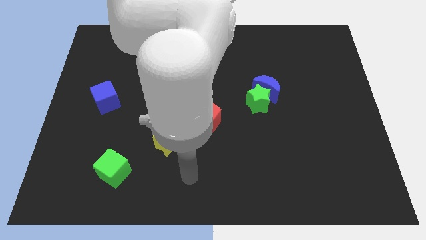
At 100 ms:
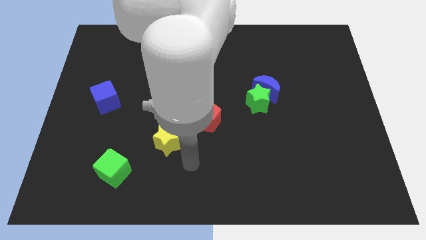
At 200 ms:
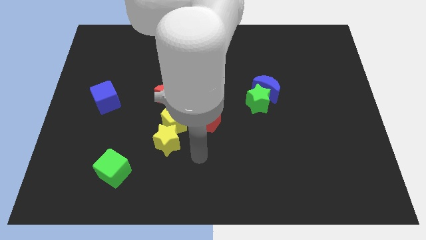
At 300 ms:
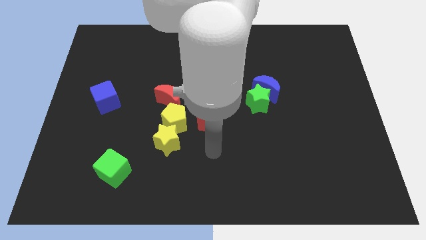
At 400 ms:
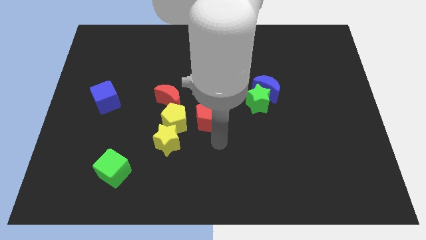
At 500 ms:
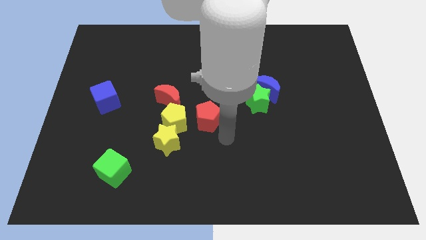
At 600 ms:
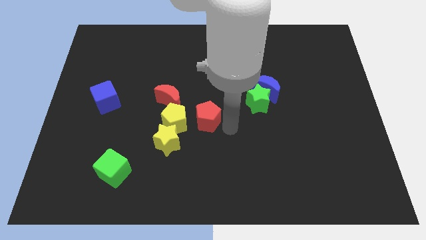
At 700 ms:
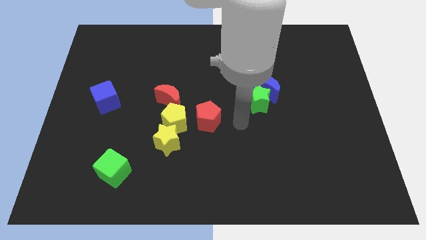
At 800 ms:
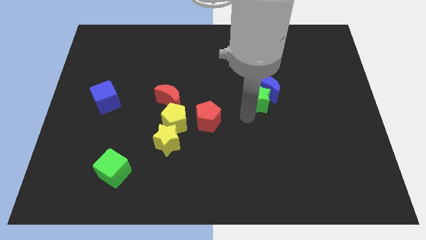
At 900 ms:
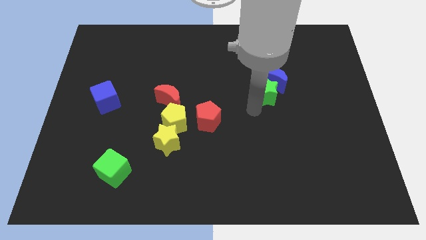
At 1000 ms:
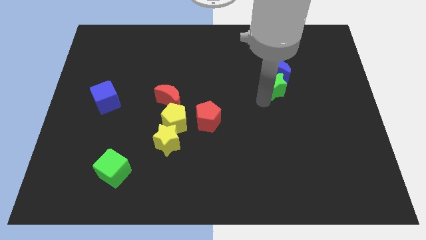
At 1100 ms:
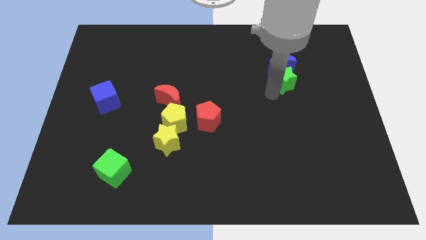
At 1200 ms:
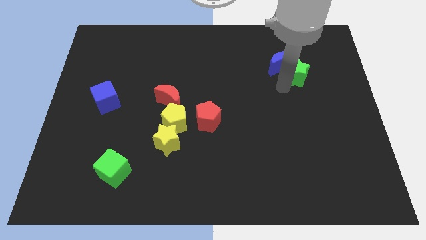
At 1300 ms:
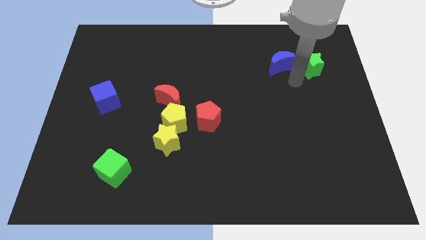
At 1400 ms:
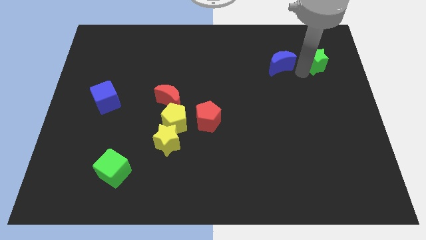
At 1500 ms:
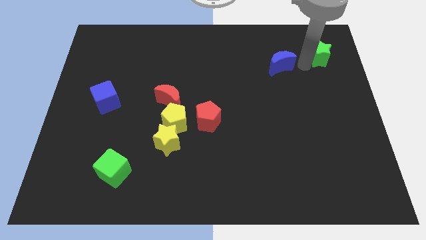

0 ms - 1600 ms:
move the blue moon away from the green star

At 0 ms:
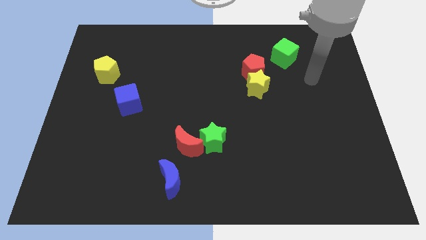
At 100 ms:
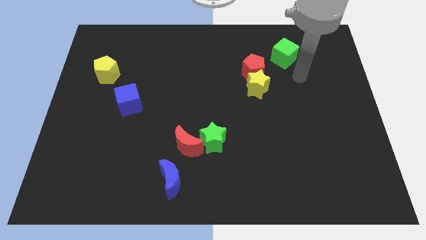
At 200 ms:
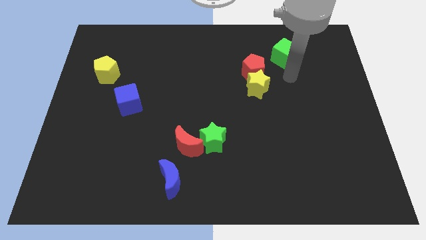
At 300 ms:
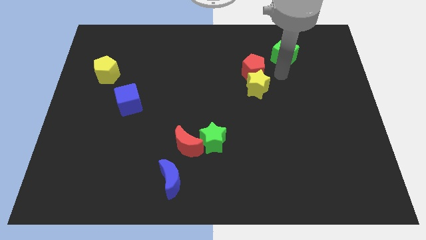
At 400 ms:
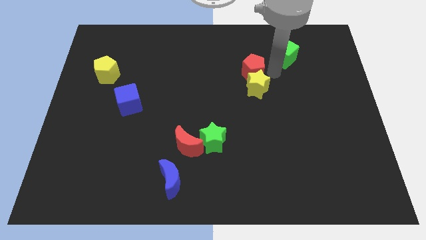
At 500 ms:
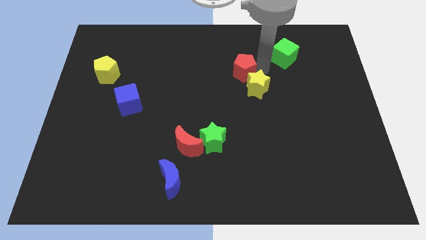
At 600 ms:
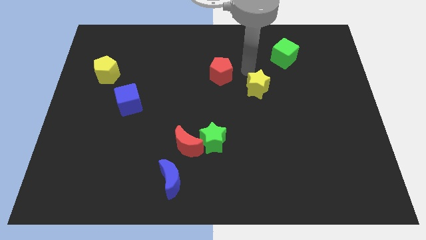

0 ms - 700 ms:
separate the yellow star from the red pentagon

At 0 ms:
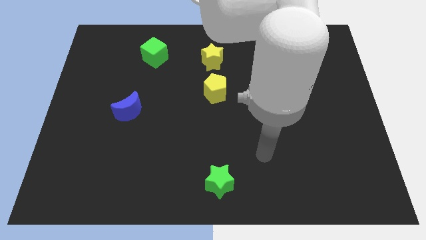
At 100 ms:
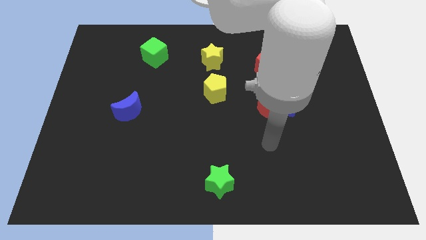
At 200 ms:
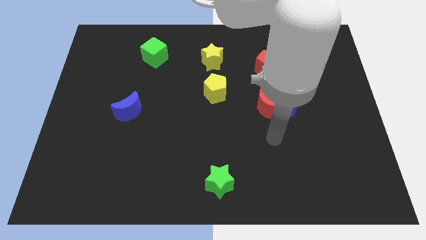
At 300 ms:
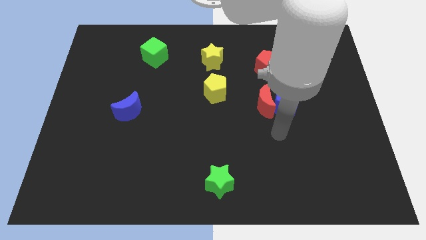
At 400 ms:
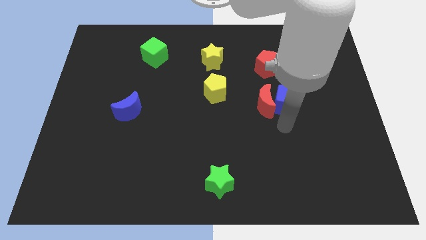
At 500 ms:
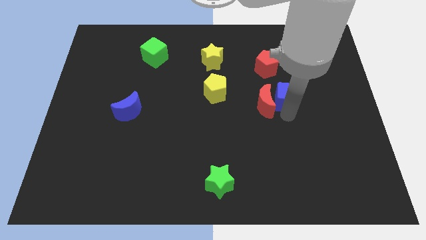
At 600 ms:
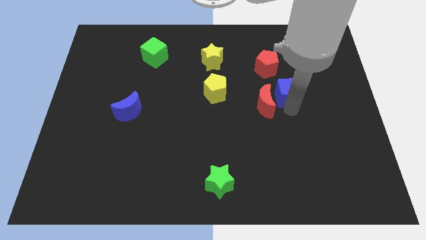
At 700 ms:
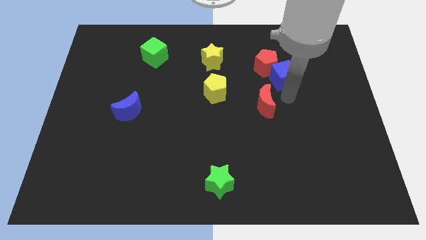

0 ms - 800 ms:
separate the red moon from the blue cube

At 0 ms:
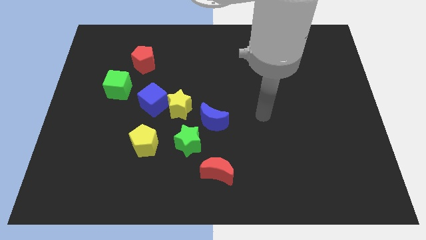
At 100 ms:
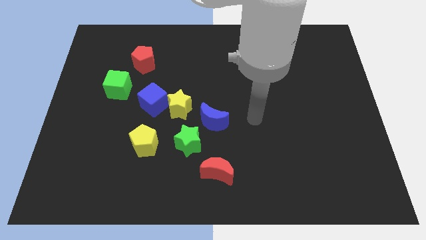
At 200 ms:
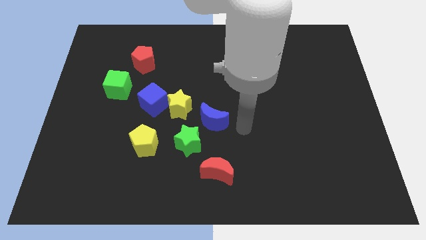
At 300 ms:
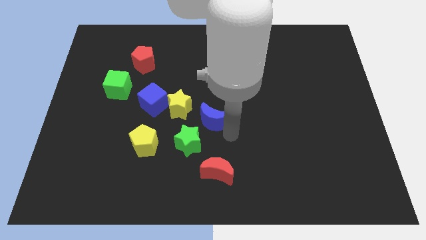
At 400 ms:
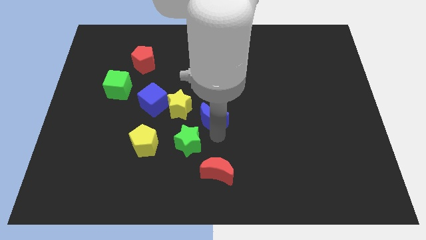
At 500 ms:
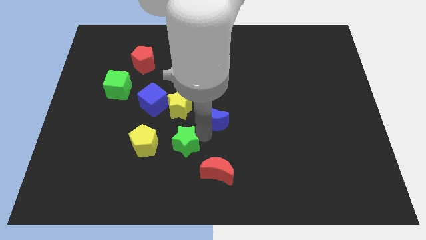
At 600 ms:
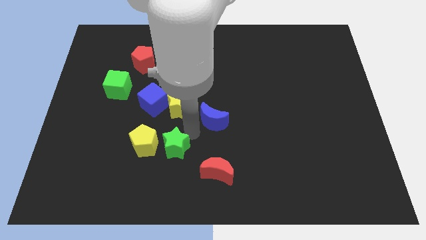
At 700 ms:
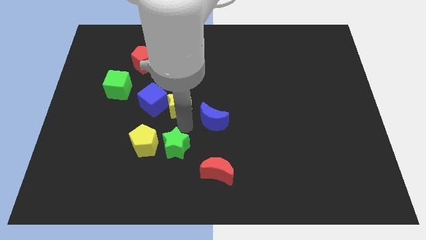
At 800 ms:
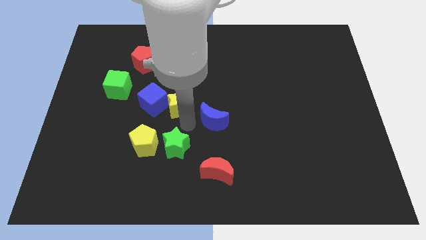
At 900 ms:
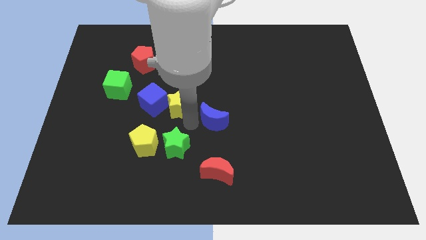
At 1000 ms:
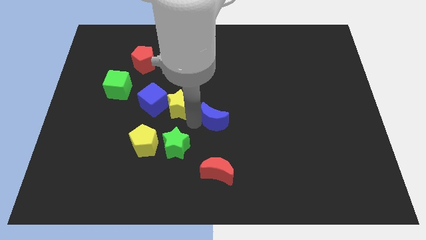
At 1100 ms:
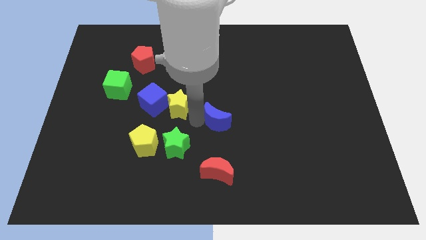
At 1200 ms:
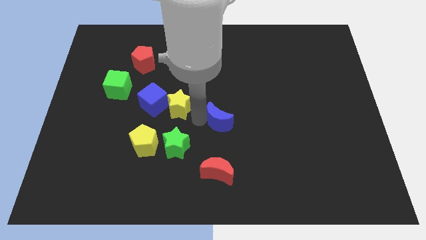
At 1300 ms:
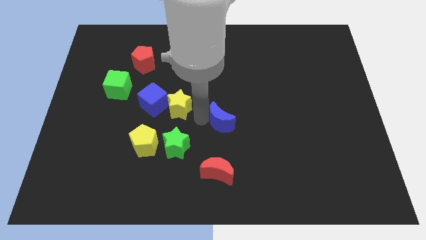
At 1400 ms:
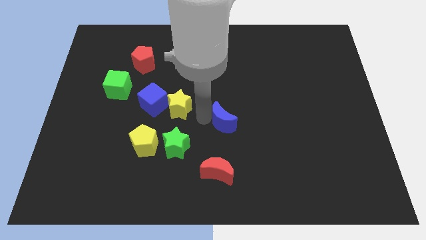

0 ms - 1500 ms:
move the blue moon away from the green star and yellow star

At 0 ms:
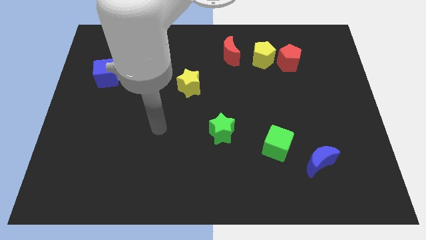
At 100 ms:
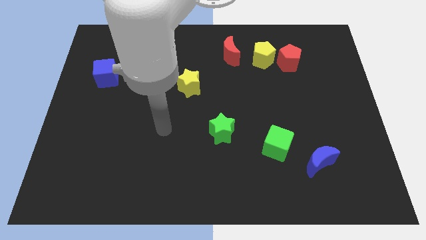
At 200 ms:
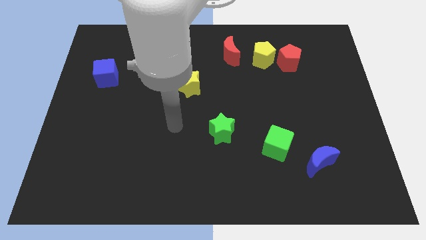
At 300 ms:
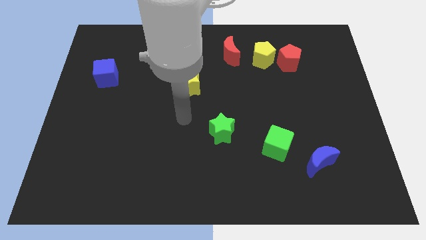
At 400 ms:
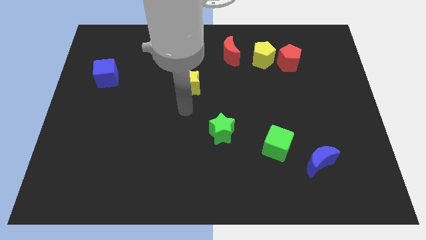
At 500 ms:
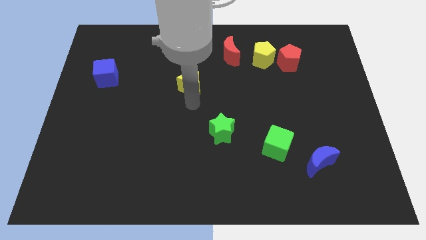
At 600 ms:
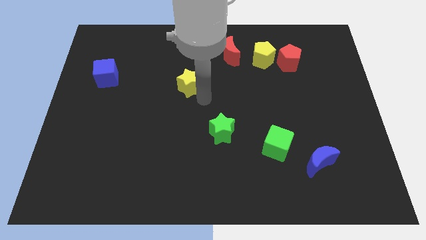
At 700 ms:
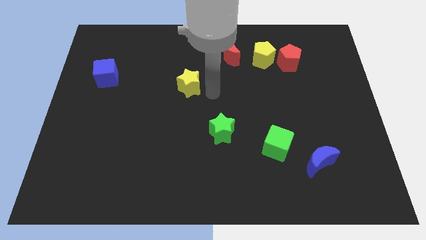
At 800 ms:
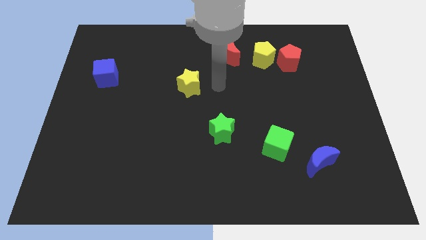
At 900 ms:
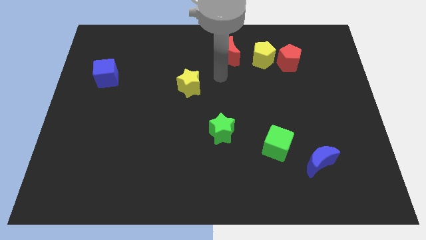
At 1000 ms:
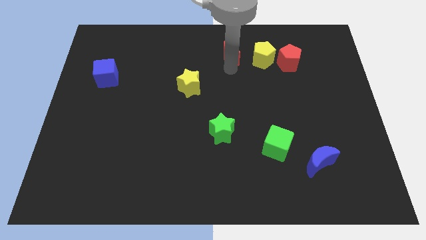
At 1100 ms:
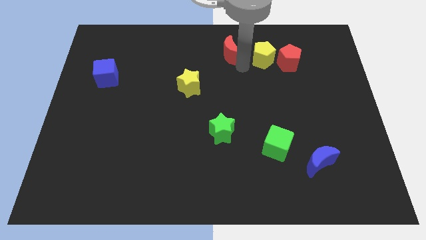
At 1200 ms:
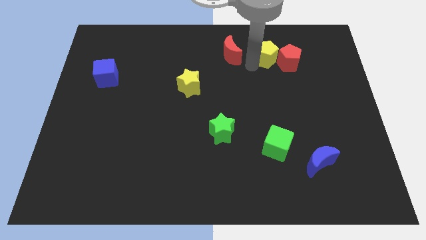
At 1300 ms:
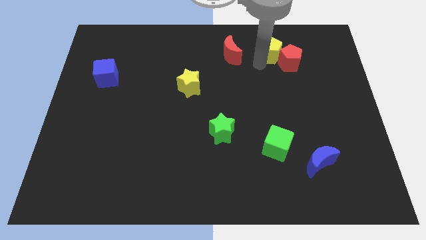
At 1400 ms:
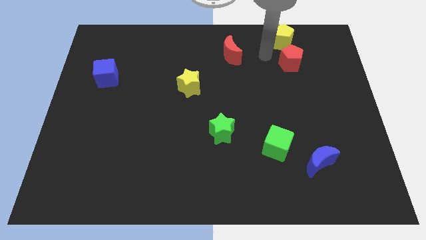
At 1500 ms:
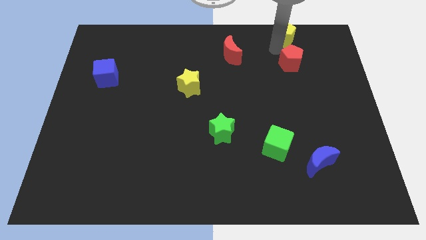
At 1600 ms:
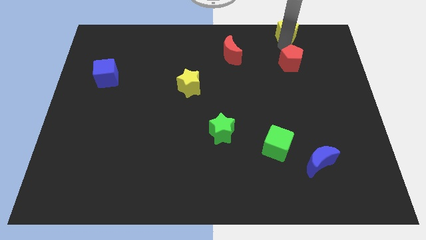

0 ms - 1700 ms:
pull the red pentagon apart from the yellow pentagon

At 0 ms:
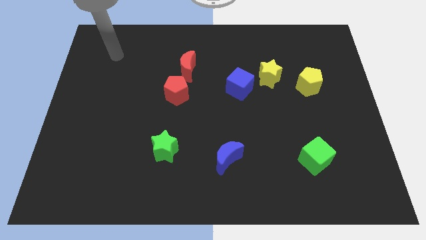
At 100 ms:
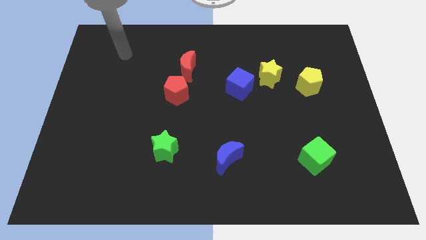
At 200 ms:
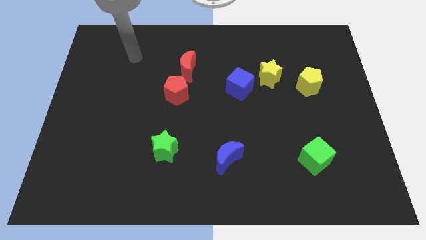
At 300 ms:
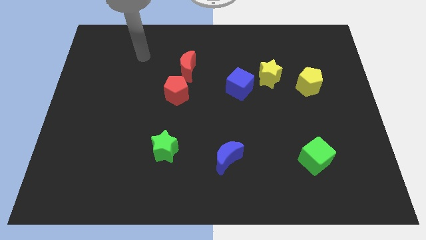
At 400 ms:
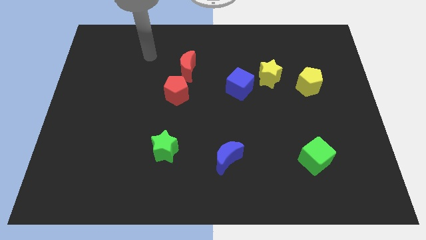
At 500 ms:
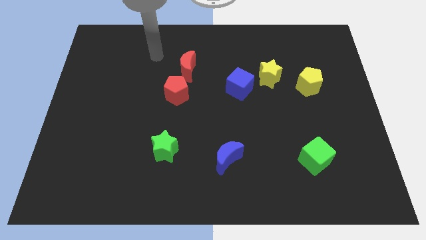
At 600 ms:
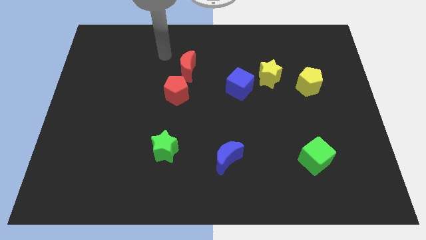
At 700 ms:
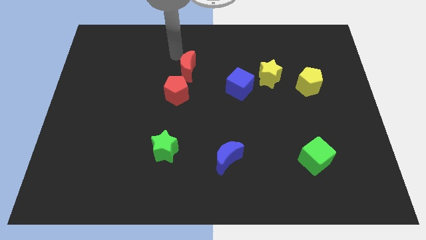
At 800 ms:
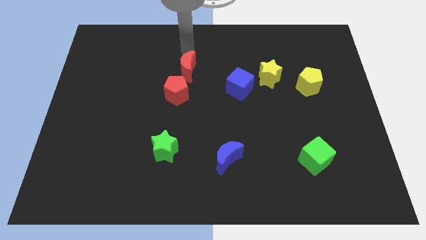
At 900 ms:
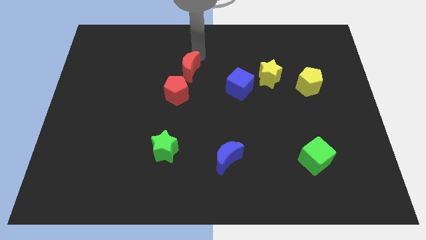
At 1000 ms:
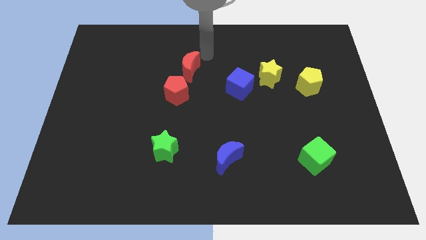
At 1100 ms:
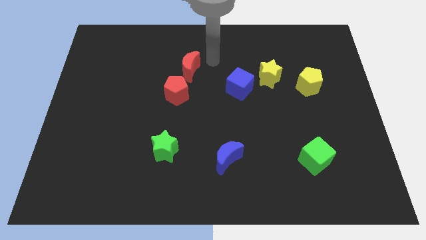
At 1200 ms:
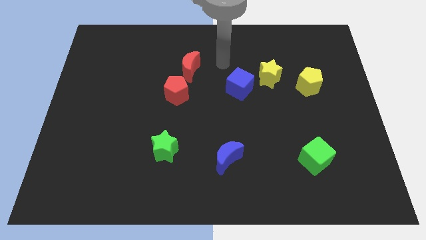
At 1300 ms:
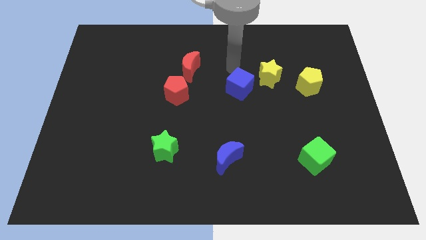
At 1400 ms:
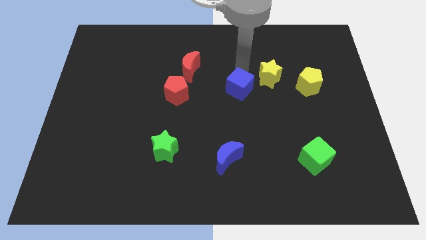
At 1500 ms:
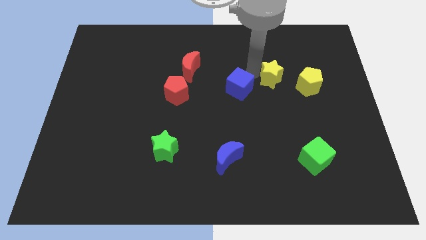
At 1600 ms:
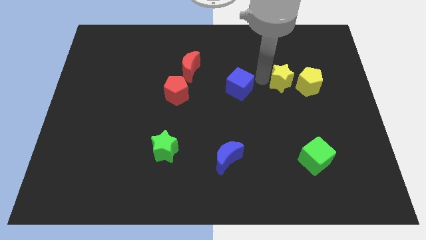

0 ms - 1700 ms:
separate the blue cube from the yellow star

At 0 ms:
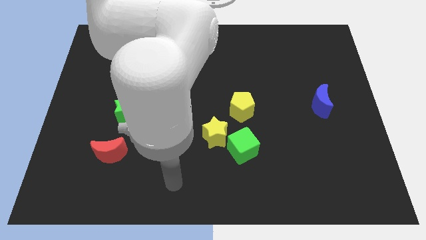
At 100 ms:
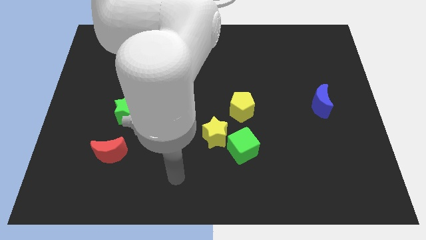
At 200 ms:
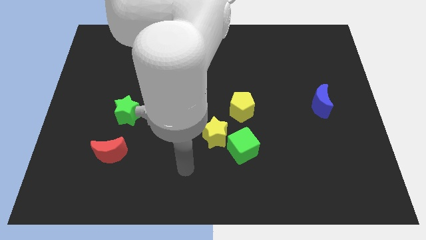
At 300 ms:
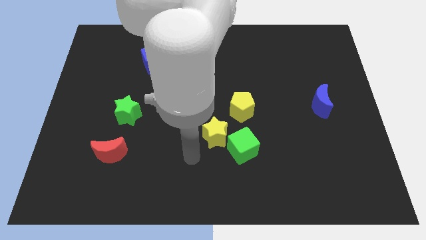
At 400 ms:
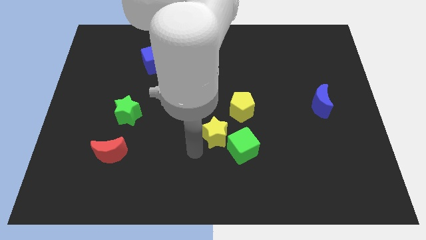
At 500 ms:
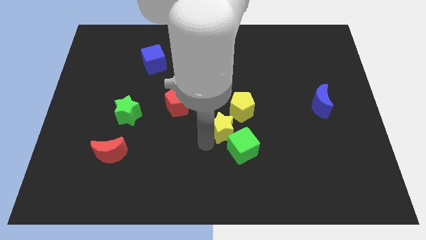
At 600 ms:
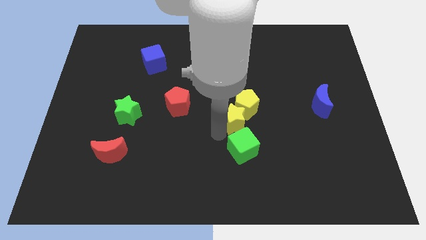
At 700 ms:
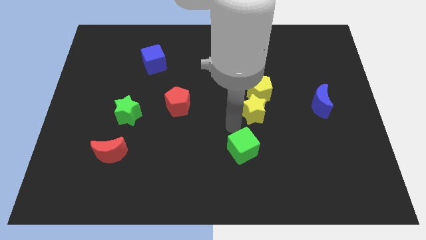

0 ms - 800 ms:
separate the green cube from the yellow star

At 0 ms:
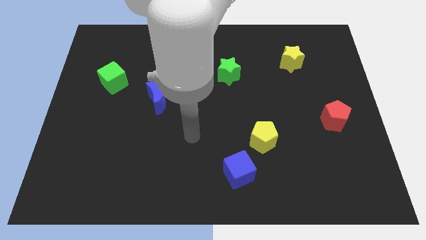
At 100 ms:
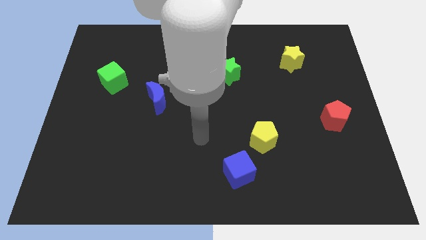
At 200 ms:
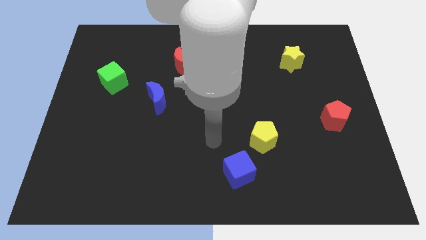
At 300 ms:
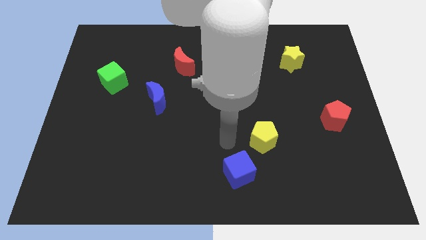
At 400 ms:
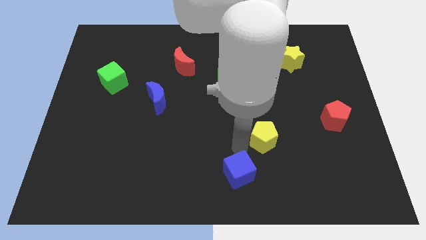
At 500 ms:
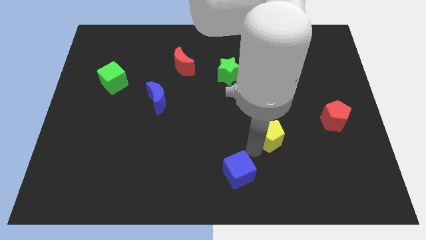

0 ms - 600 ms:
move the blue cube away from the yellow pentagon
